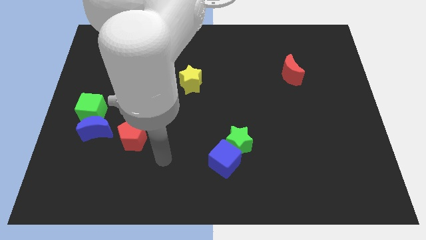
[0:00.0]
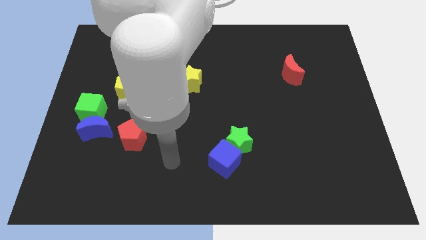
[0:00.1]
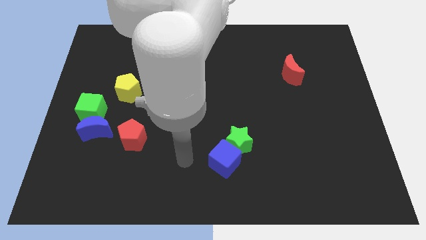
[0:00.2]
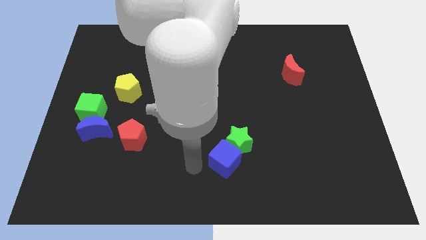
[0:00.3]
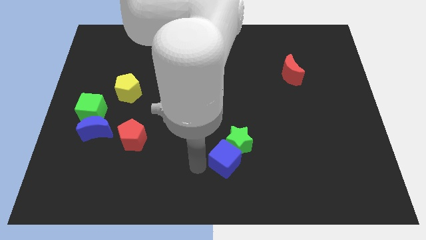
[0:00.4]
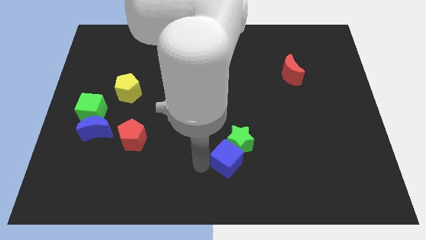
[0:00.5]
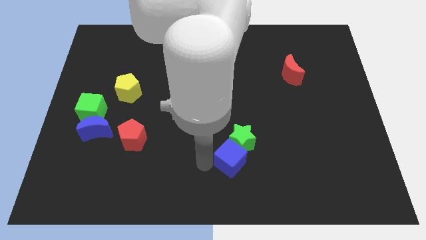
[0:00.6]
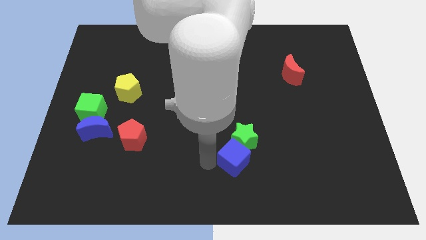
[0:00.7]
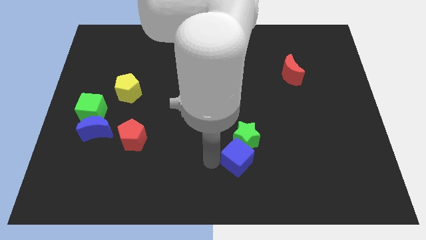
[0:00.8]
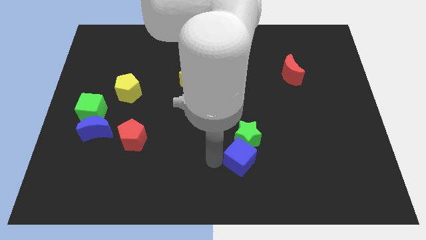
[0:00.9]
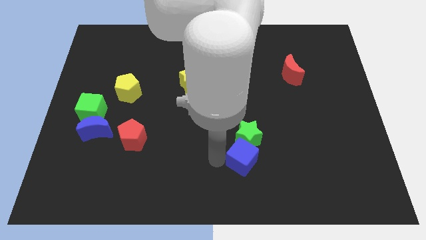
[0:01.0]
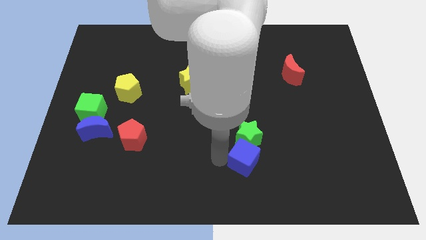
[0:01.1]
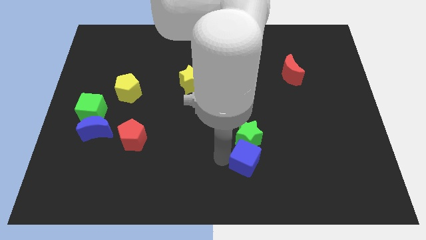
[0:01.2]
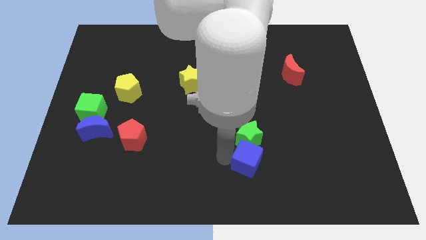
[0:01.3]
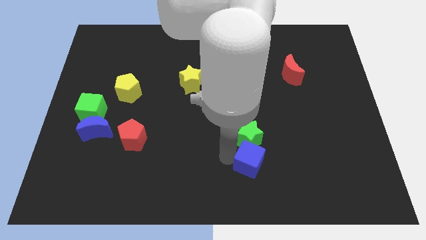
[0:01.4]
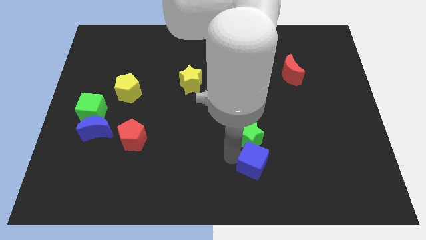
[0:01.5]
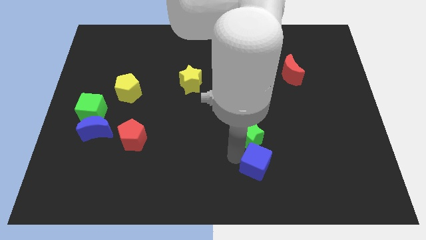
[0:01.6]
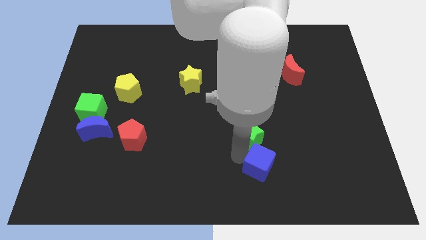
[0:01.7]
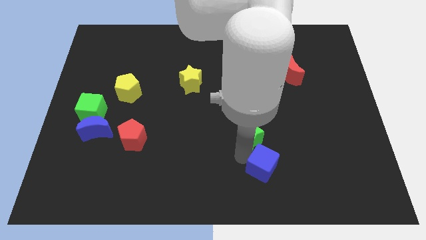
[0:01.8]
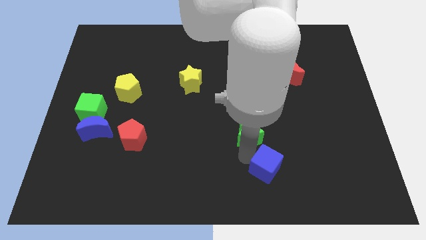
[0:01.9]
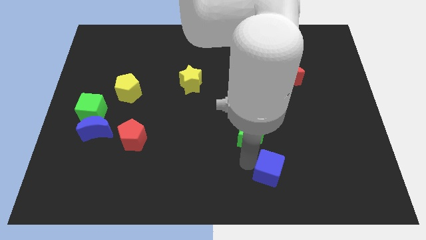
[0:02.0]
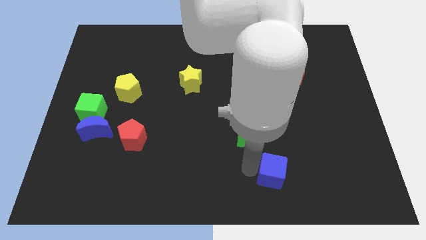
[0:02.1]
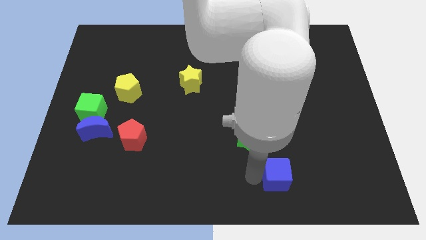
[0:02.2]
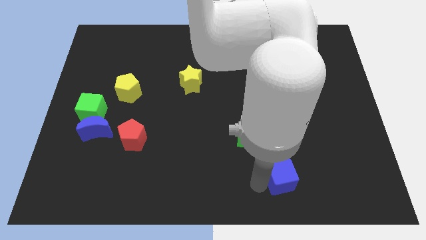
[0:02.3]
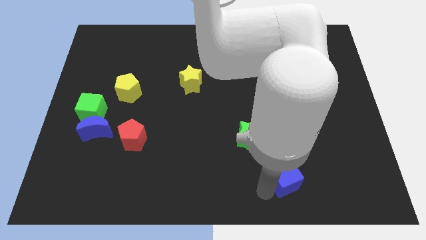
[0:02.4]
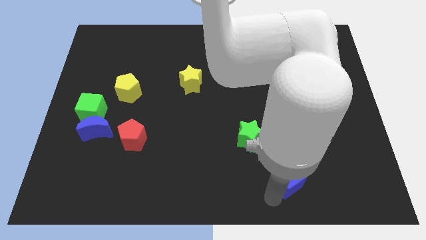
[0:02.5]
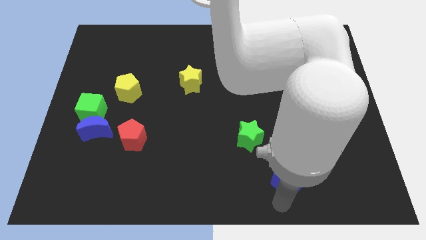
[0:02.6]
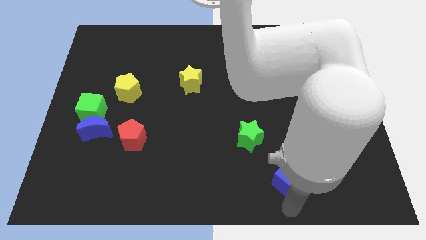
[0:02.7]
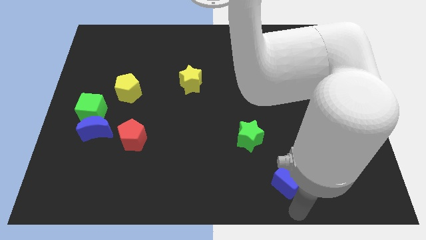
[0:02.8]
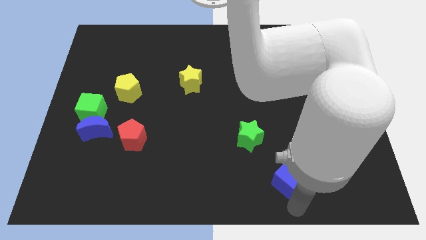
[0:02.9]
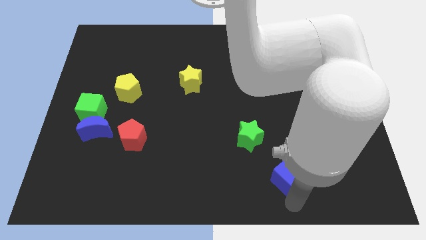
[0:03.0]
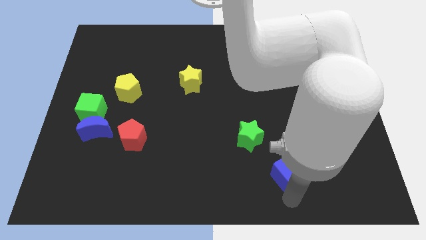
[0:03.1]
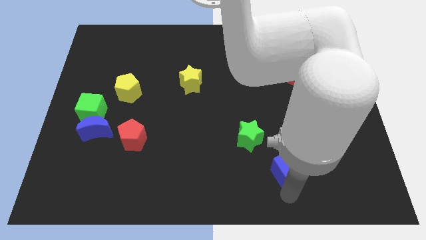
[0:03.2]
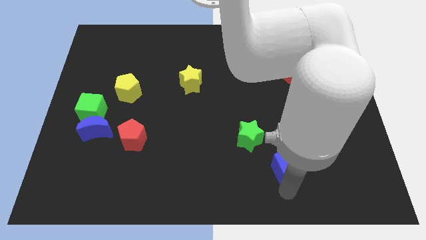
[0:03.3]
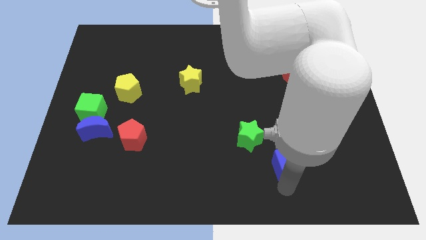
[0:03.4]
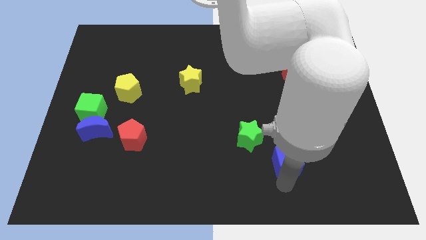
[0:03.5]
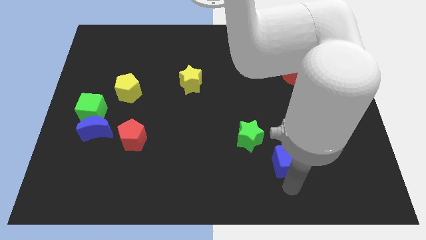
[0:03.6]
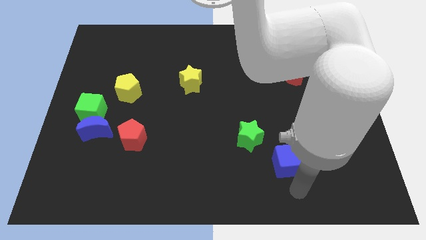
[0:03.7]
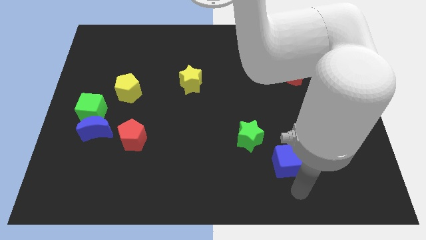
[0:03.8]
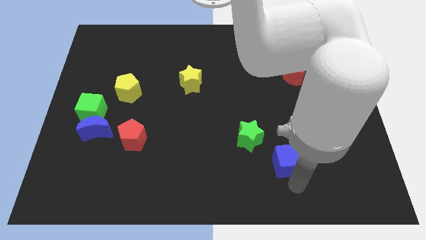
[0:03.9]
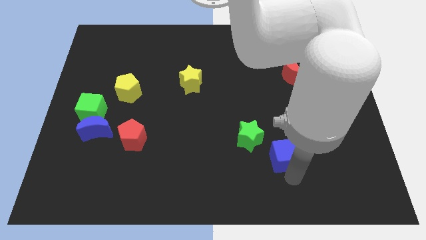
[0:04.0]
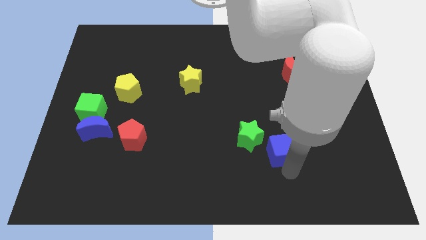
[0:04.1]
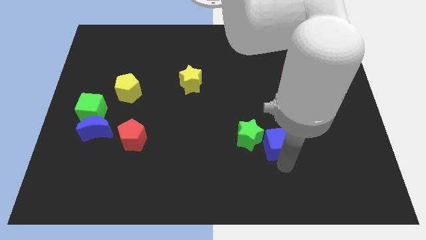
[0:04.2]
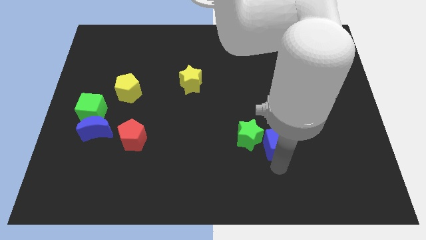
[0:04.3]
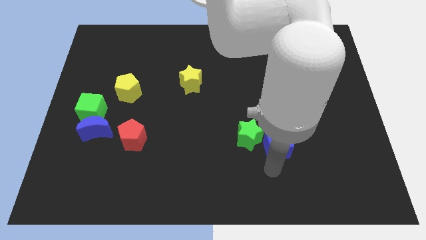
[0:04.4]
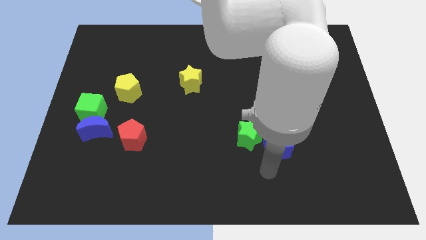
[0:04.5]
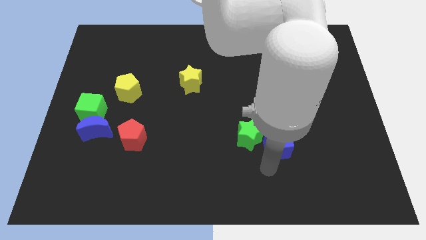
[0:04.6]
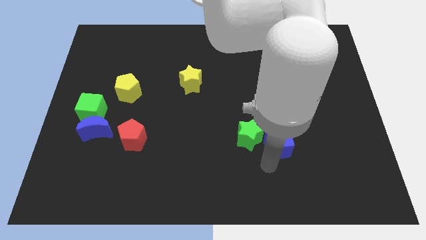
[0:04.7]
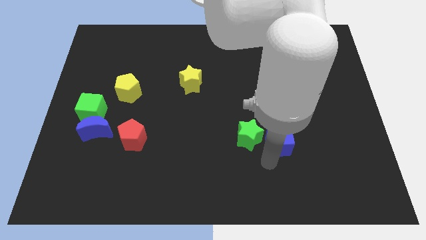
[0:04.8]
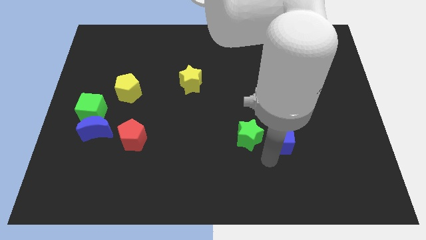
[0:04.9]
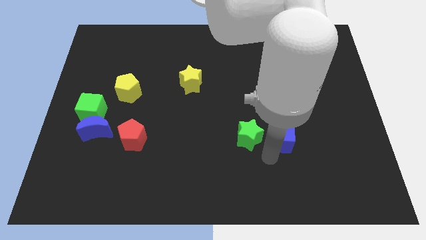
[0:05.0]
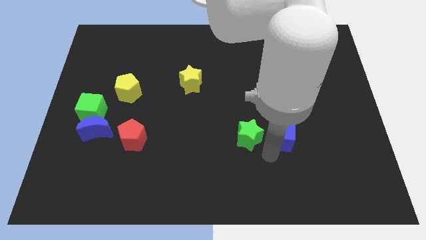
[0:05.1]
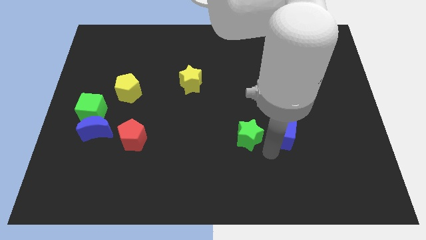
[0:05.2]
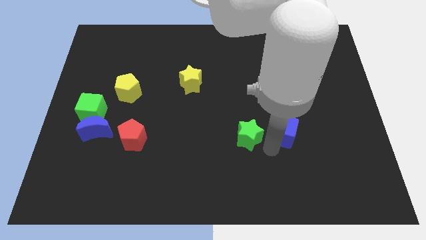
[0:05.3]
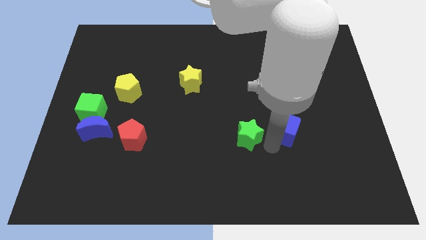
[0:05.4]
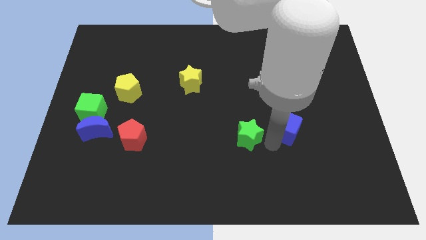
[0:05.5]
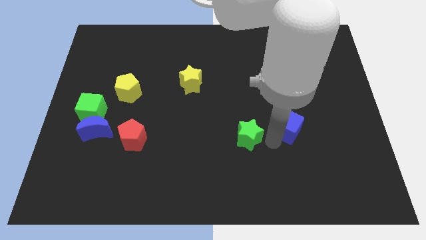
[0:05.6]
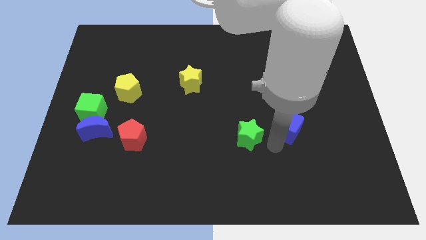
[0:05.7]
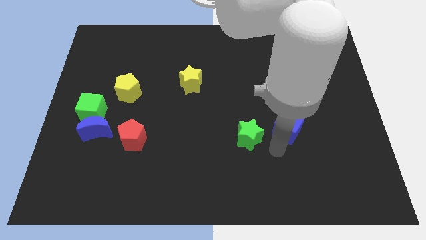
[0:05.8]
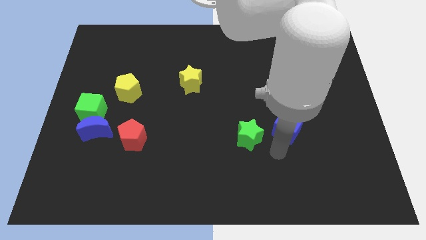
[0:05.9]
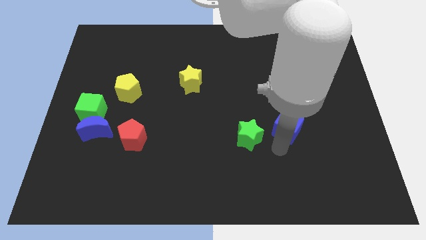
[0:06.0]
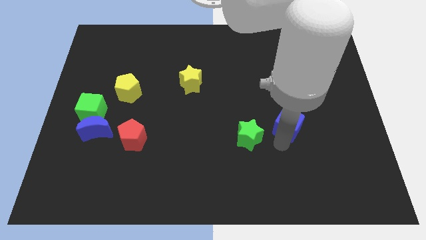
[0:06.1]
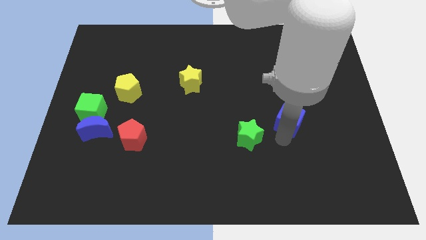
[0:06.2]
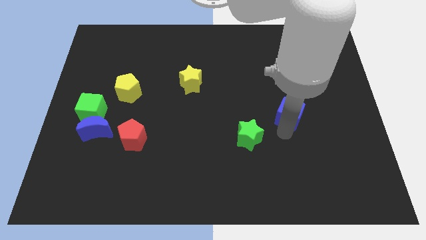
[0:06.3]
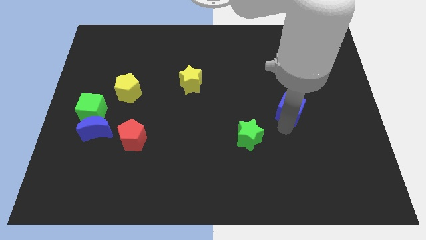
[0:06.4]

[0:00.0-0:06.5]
move the blue cube diagonally up and to the right

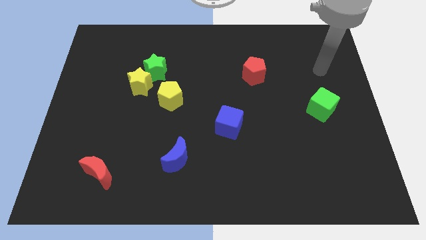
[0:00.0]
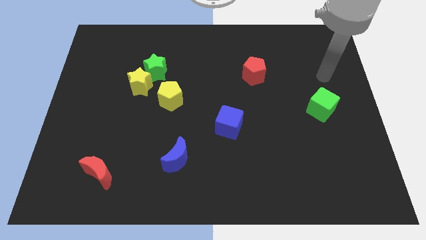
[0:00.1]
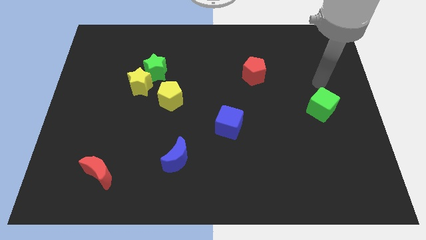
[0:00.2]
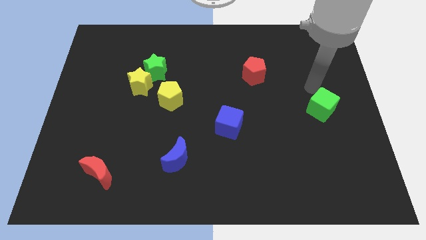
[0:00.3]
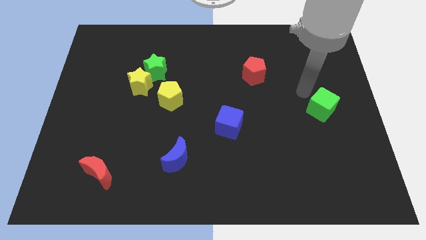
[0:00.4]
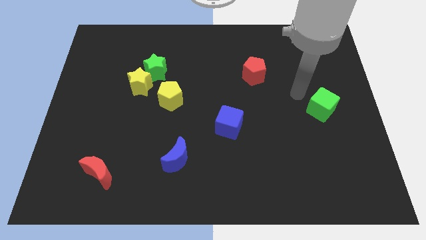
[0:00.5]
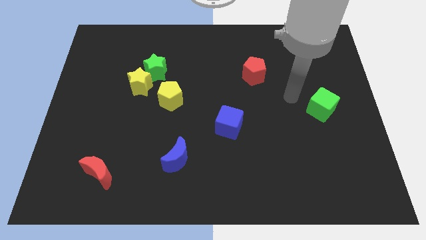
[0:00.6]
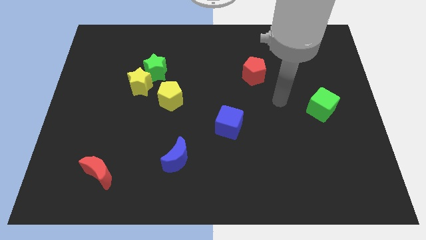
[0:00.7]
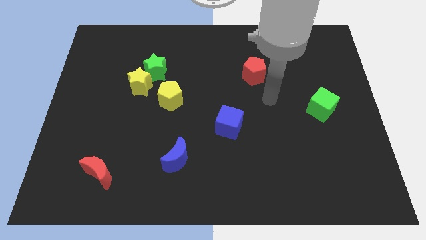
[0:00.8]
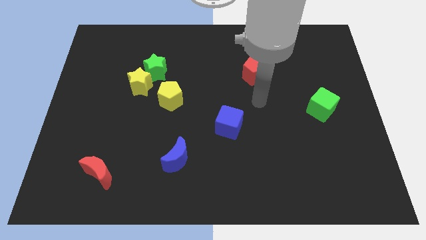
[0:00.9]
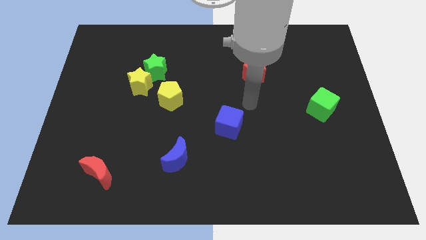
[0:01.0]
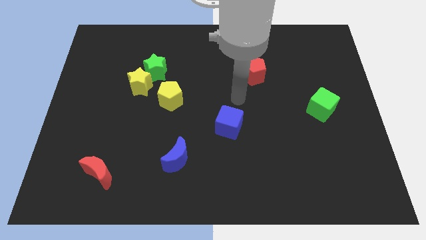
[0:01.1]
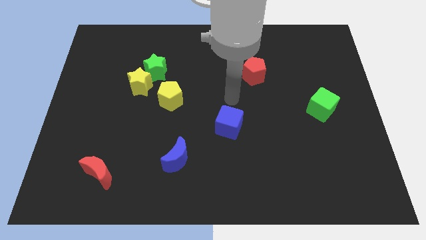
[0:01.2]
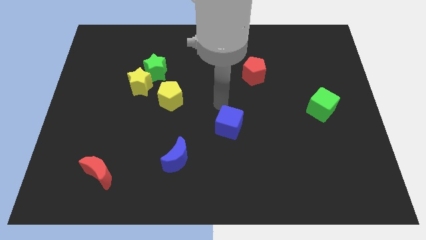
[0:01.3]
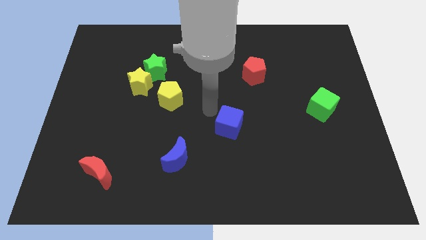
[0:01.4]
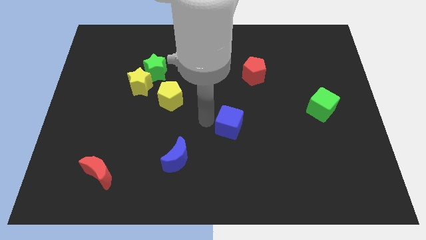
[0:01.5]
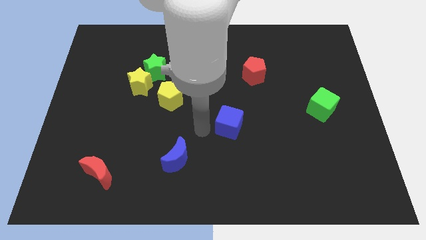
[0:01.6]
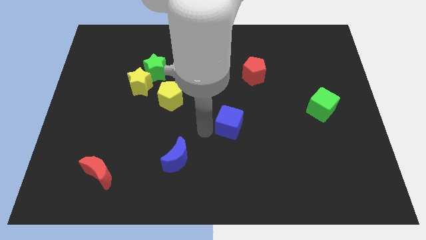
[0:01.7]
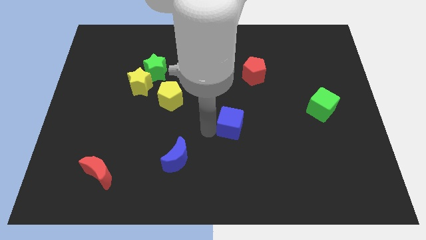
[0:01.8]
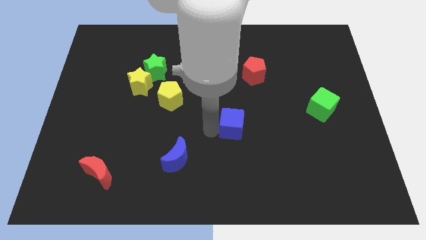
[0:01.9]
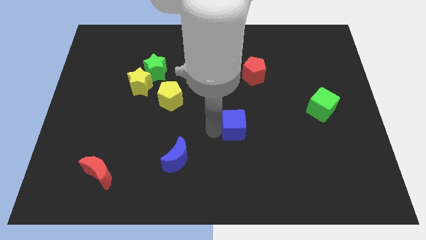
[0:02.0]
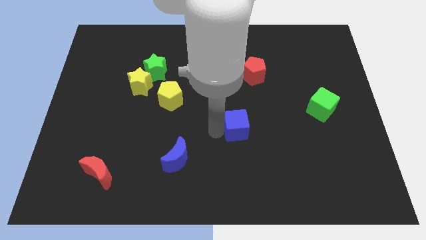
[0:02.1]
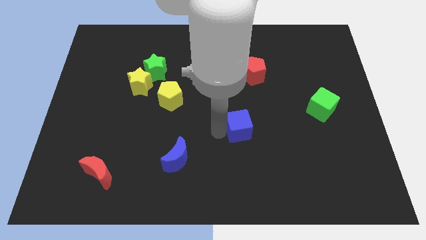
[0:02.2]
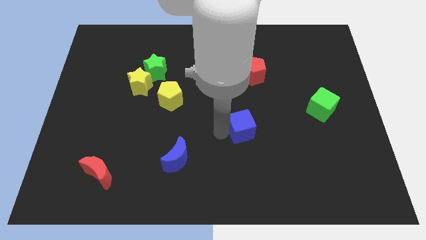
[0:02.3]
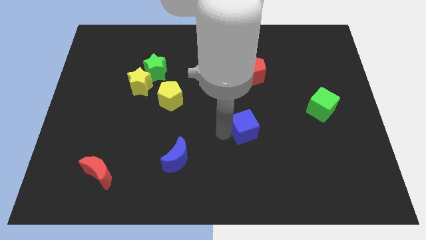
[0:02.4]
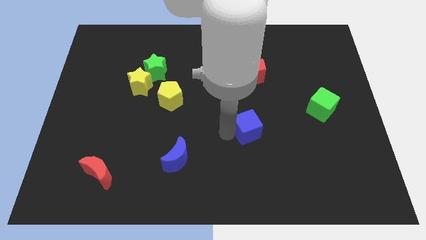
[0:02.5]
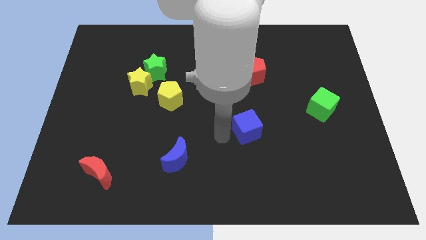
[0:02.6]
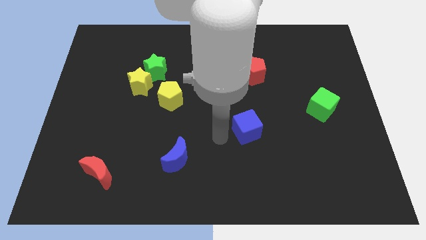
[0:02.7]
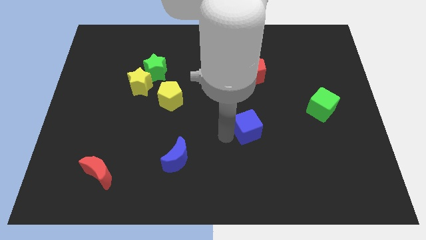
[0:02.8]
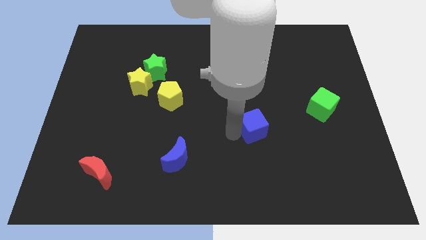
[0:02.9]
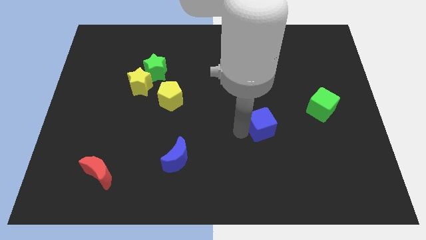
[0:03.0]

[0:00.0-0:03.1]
push the blue cube right a little
